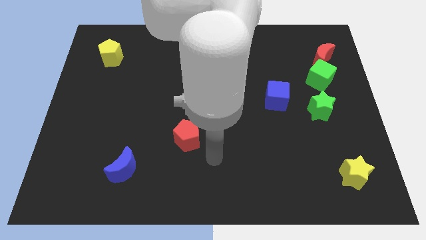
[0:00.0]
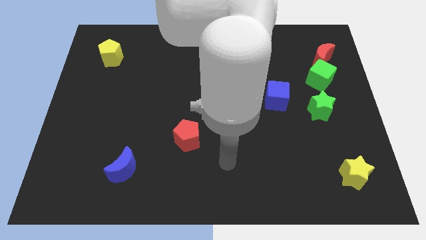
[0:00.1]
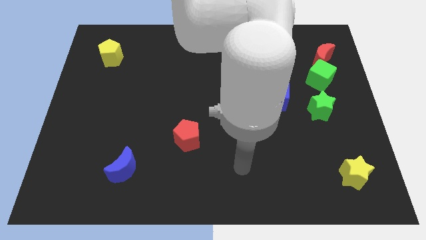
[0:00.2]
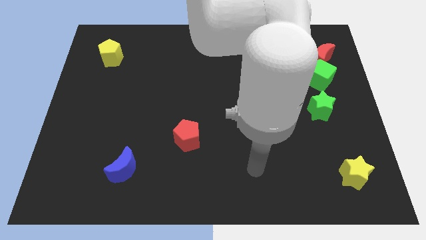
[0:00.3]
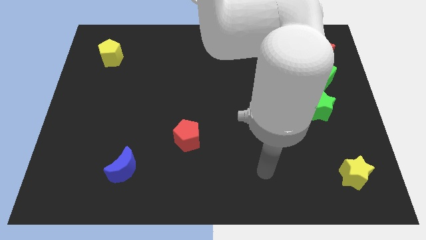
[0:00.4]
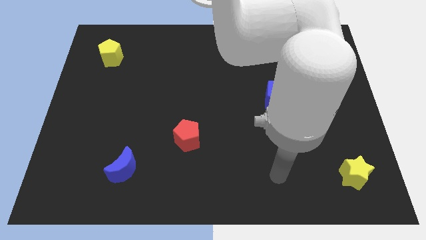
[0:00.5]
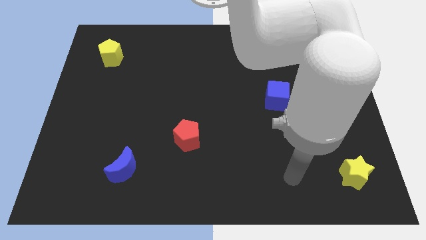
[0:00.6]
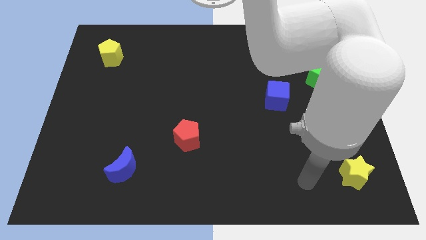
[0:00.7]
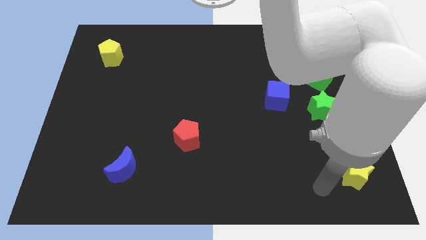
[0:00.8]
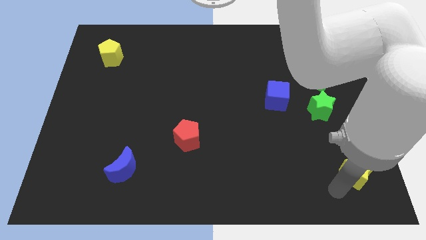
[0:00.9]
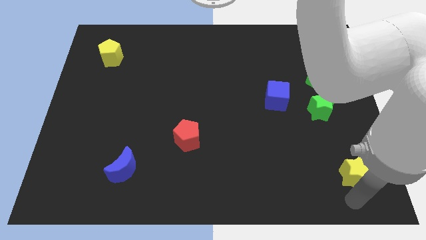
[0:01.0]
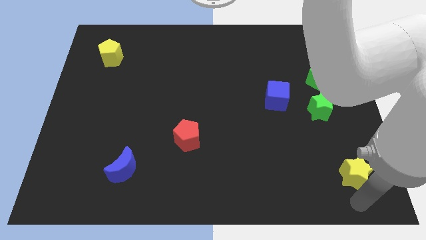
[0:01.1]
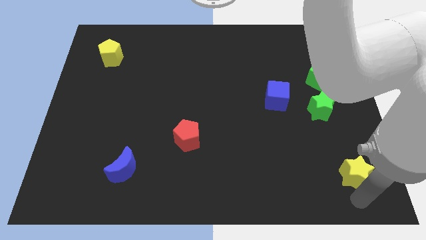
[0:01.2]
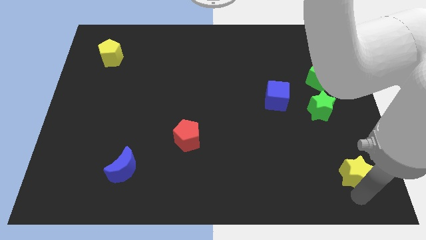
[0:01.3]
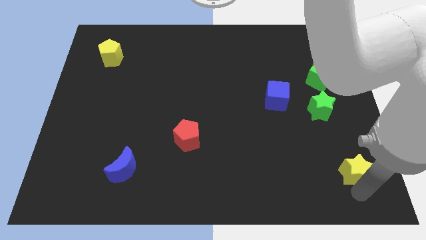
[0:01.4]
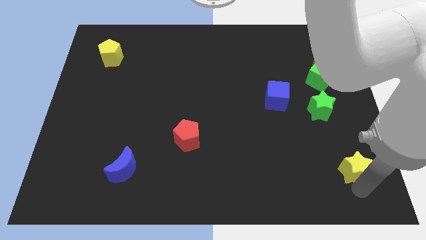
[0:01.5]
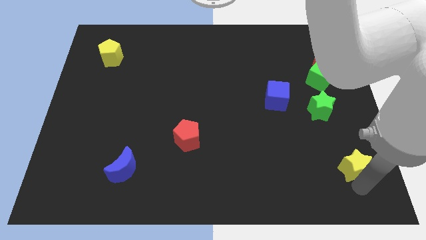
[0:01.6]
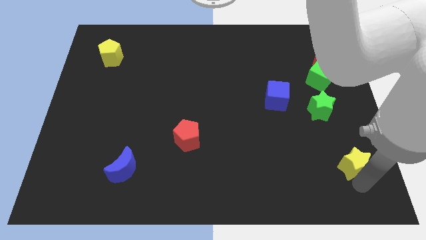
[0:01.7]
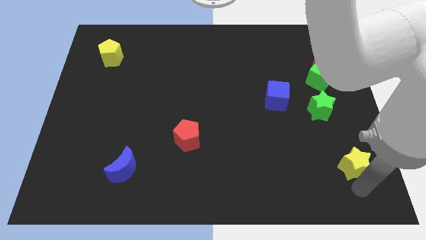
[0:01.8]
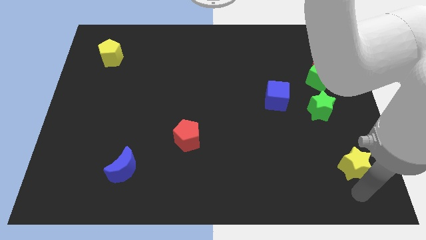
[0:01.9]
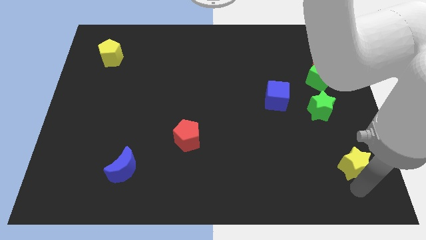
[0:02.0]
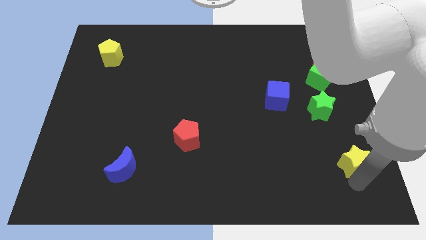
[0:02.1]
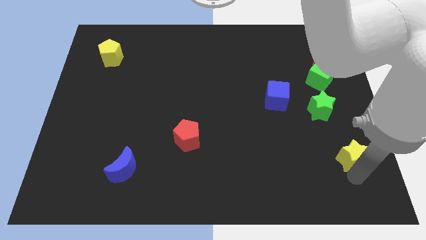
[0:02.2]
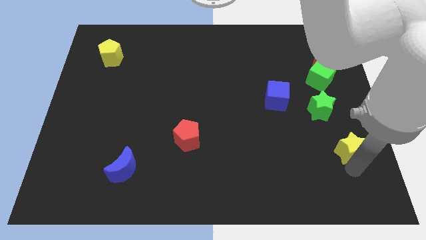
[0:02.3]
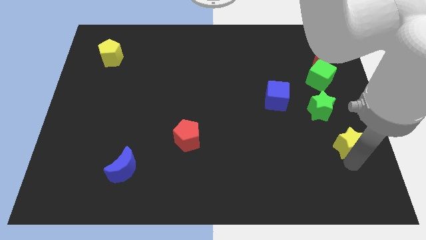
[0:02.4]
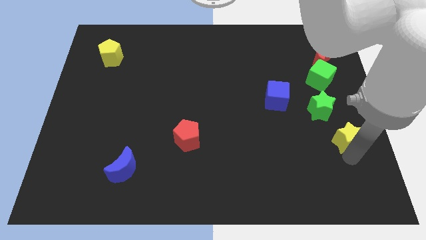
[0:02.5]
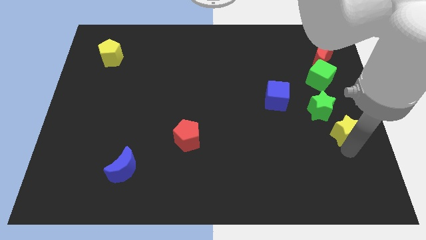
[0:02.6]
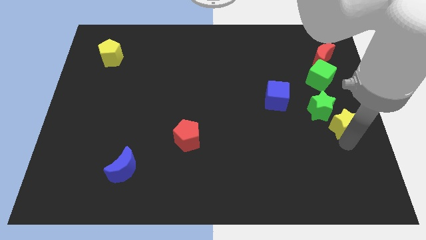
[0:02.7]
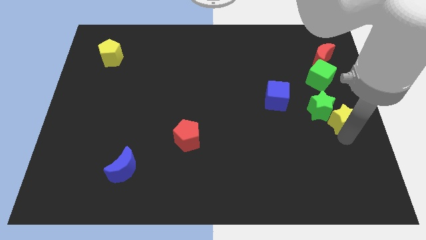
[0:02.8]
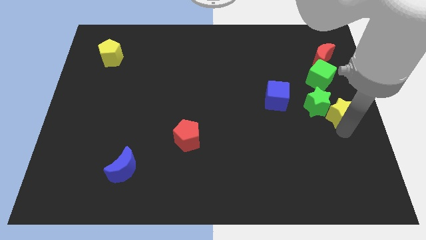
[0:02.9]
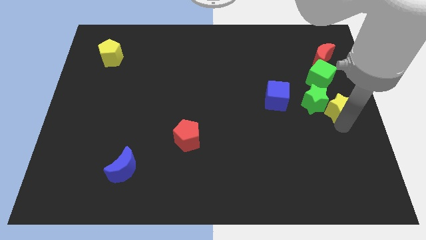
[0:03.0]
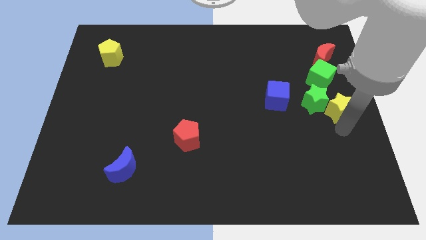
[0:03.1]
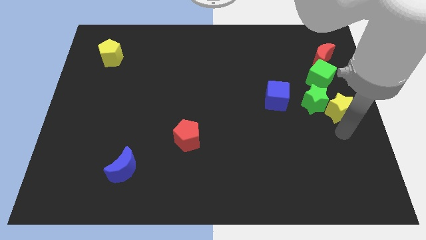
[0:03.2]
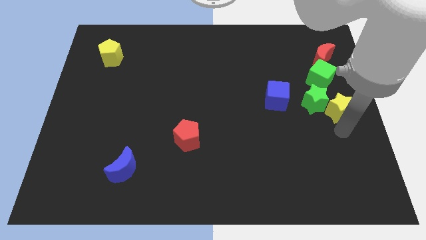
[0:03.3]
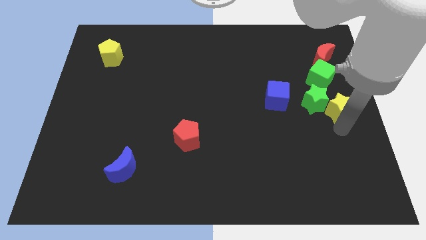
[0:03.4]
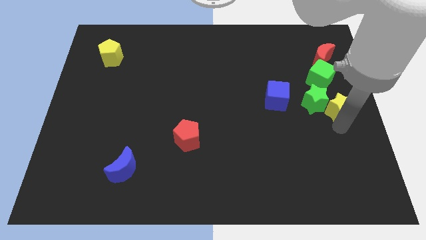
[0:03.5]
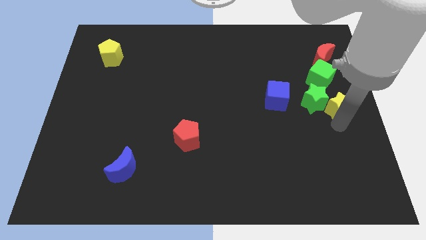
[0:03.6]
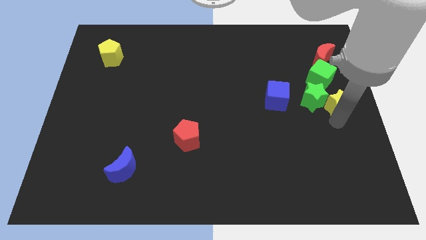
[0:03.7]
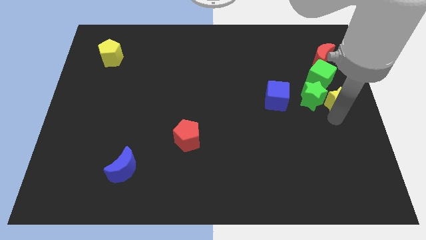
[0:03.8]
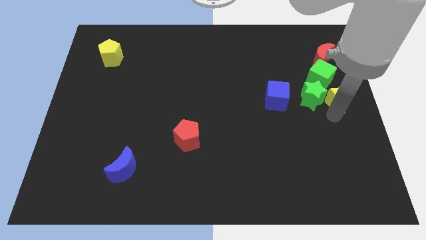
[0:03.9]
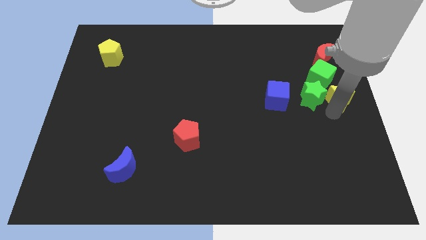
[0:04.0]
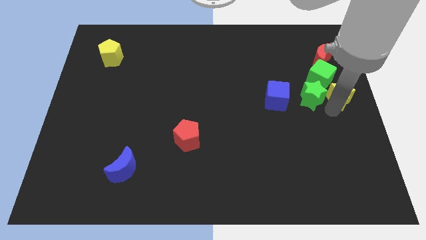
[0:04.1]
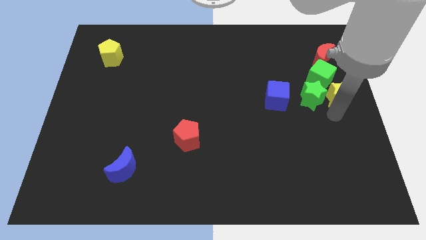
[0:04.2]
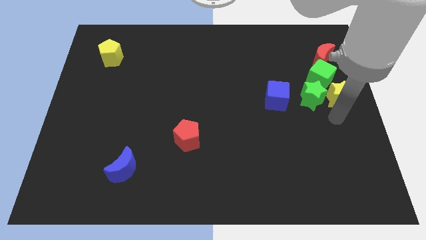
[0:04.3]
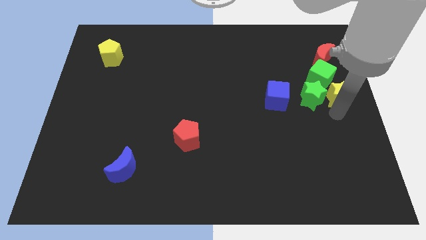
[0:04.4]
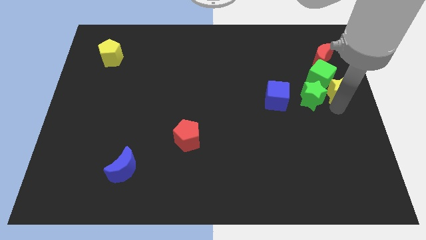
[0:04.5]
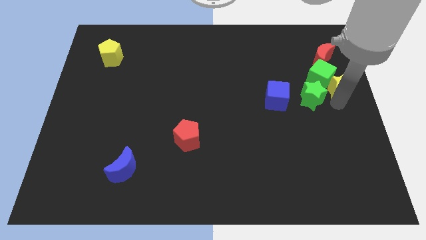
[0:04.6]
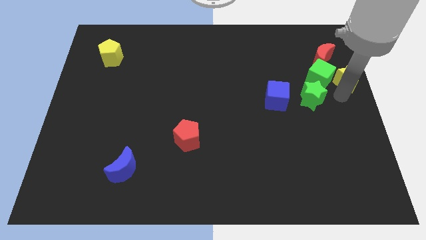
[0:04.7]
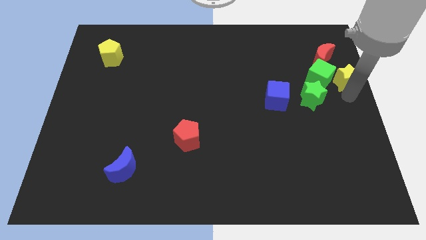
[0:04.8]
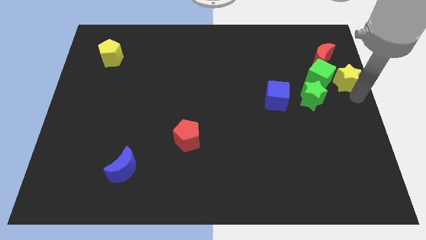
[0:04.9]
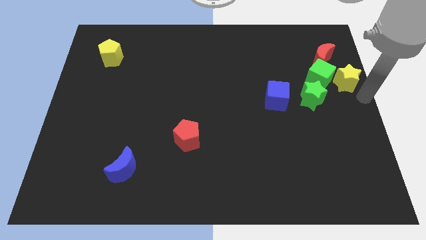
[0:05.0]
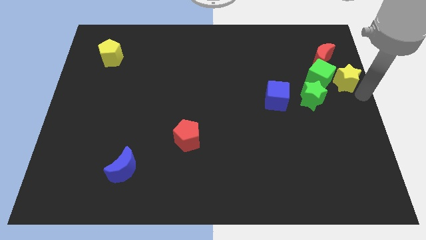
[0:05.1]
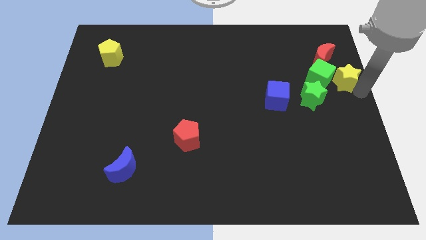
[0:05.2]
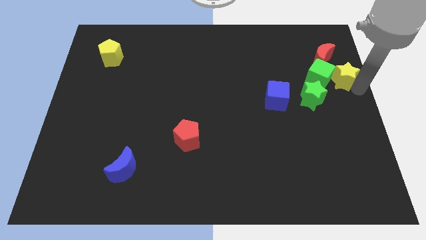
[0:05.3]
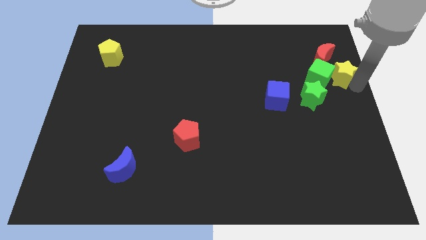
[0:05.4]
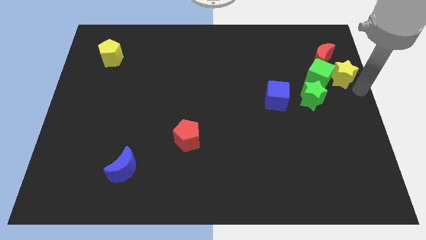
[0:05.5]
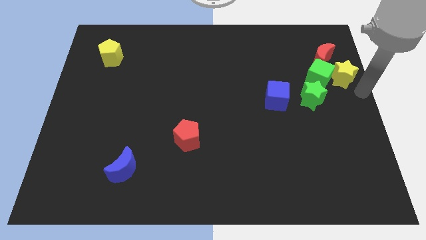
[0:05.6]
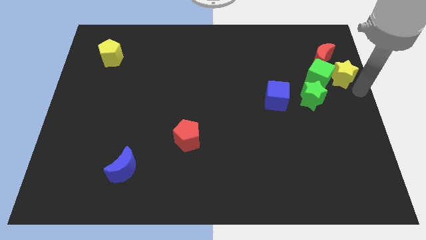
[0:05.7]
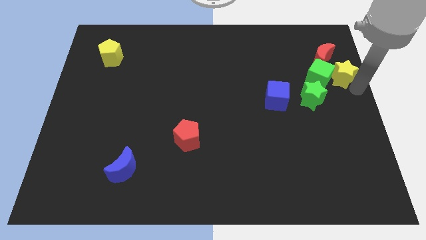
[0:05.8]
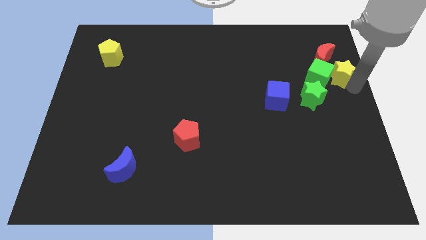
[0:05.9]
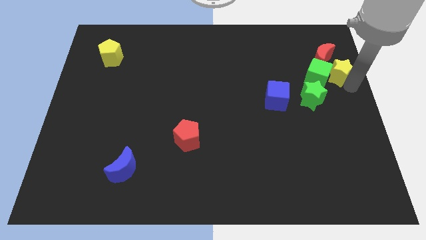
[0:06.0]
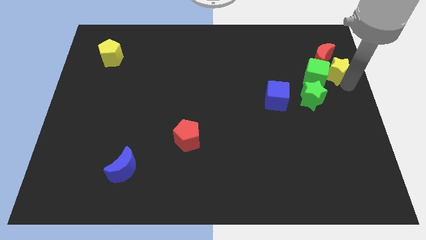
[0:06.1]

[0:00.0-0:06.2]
push the yellow star to the red moon
